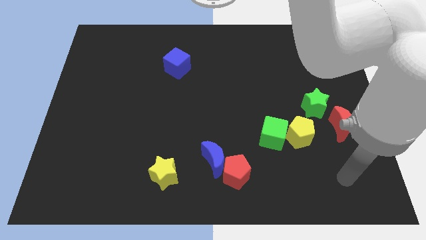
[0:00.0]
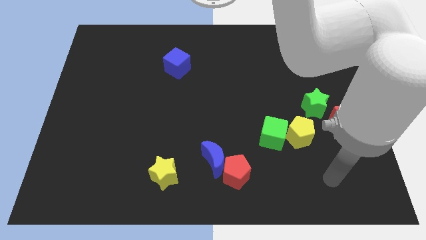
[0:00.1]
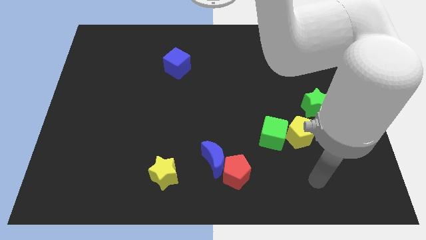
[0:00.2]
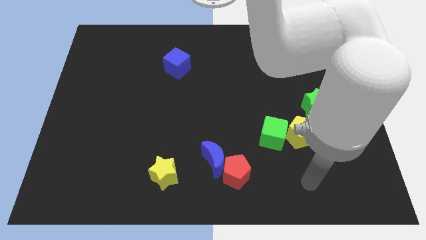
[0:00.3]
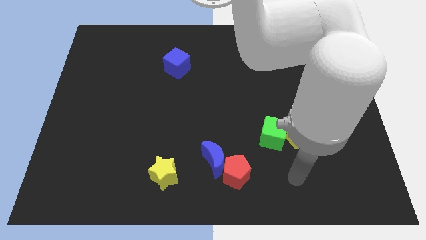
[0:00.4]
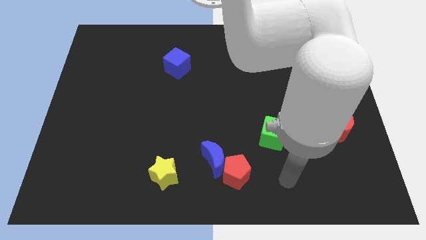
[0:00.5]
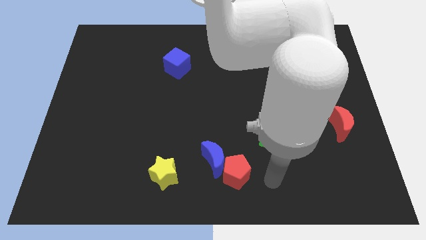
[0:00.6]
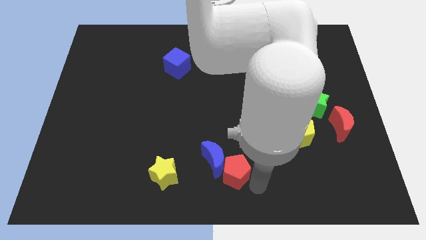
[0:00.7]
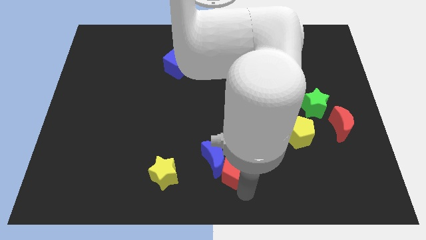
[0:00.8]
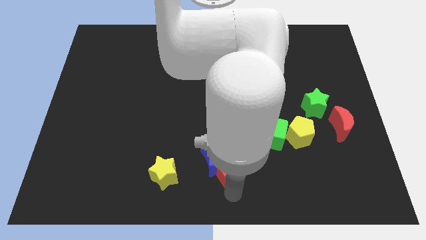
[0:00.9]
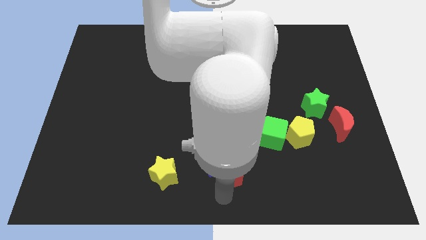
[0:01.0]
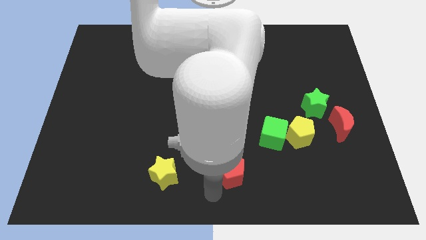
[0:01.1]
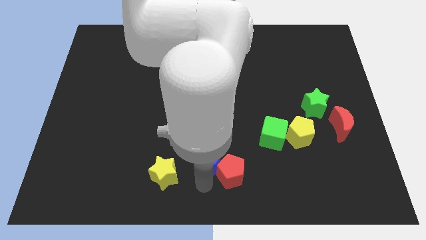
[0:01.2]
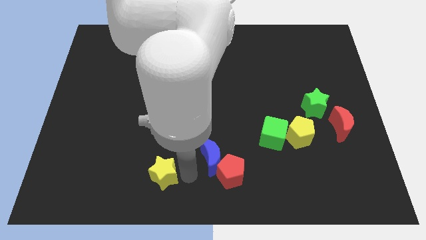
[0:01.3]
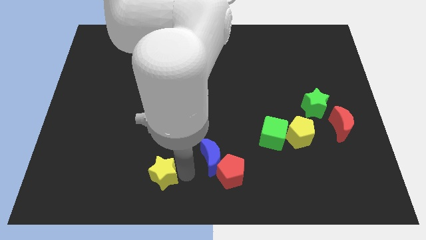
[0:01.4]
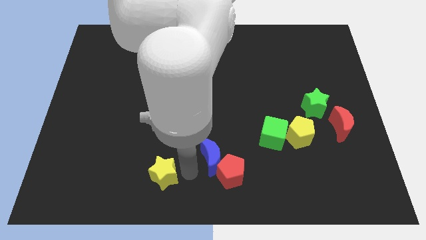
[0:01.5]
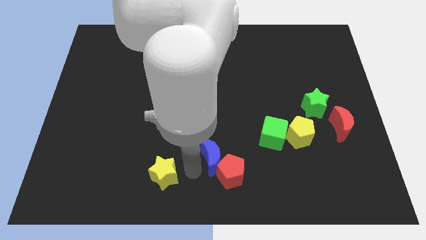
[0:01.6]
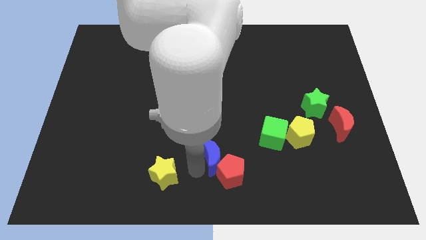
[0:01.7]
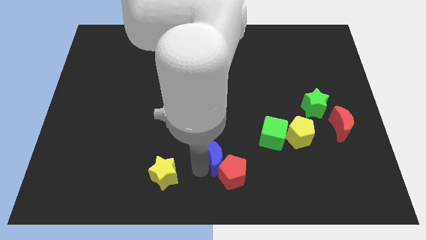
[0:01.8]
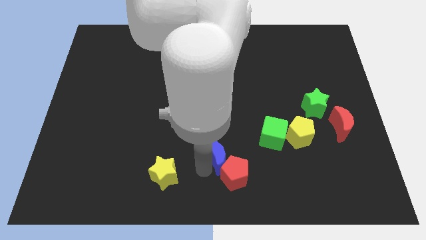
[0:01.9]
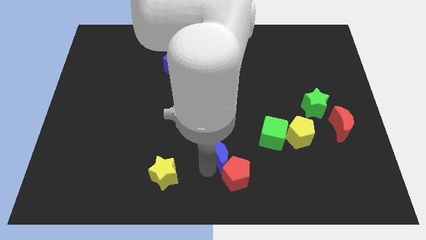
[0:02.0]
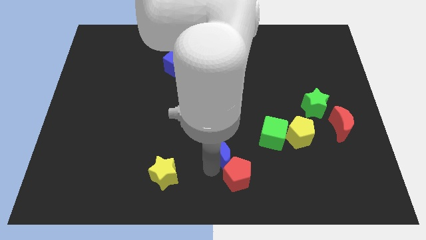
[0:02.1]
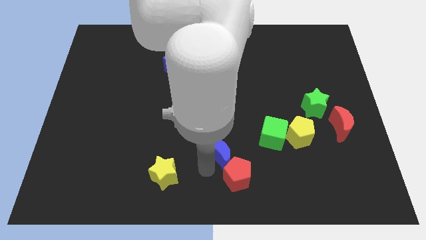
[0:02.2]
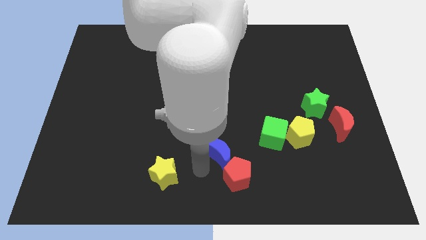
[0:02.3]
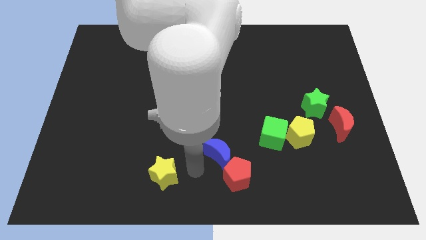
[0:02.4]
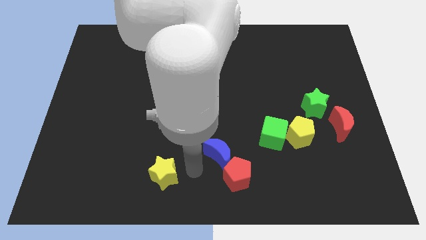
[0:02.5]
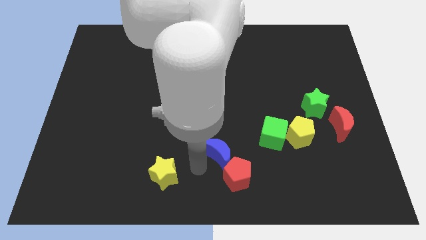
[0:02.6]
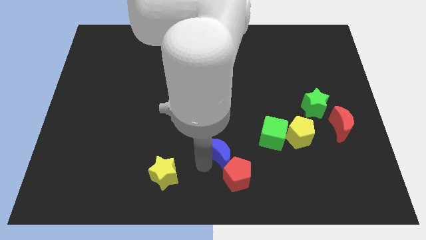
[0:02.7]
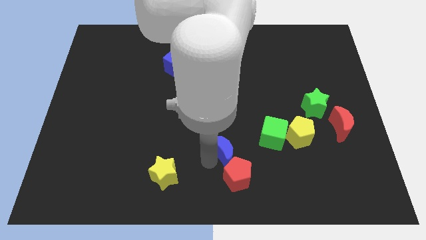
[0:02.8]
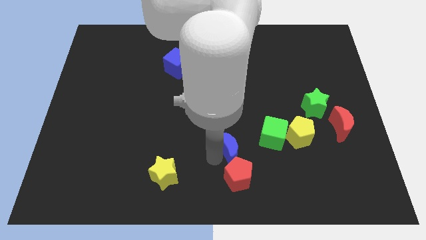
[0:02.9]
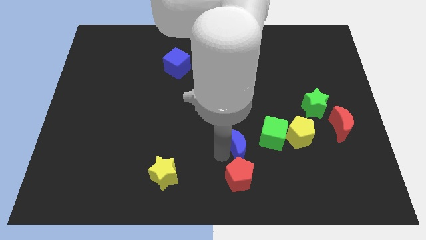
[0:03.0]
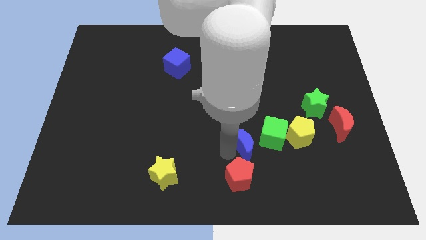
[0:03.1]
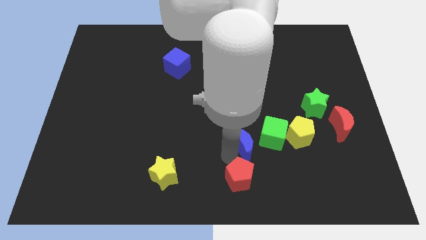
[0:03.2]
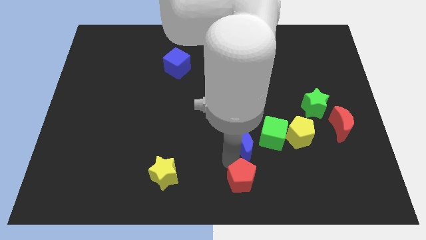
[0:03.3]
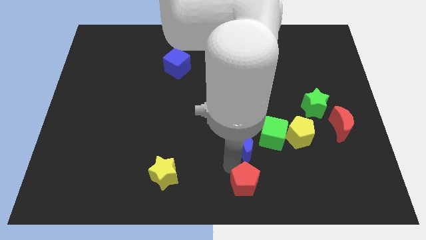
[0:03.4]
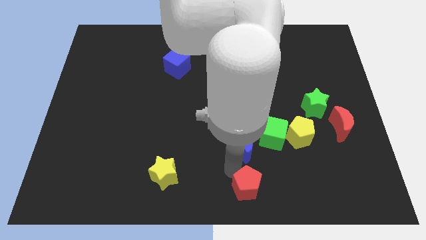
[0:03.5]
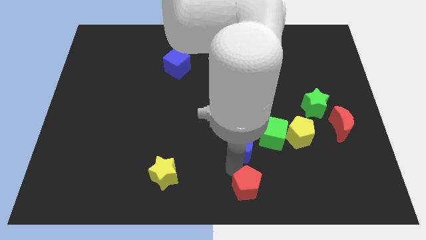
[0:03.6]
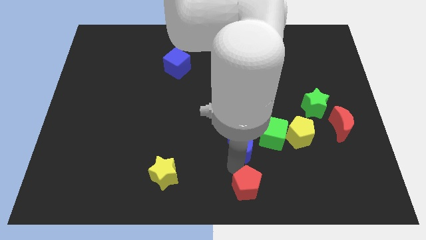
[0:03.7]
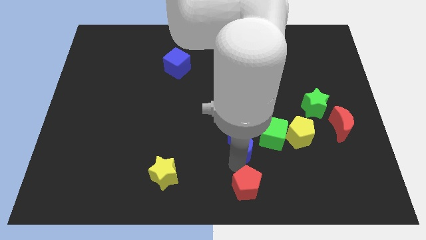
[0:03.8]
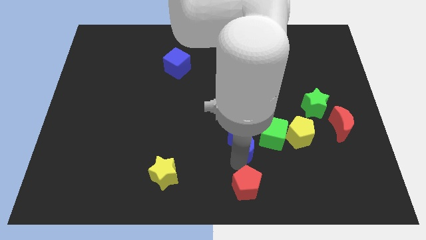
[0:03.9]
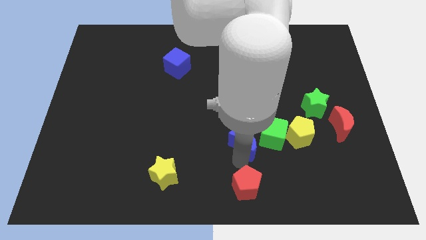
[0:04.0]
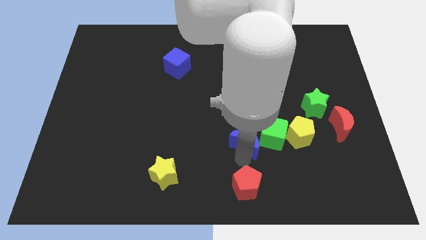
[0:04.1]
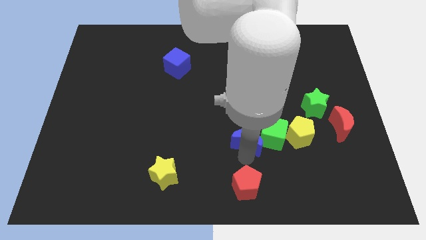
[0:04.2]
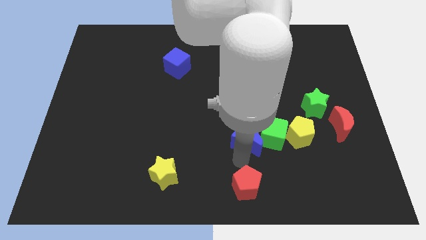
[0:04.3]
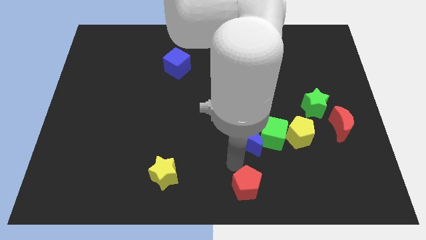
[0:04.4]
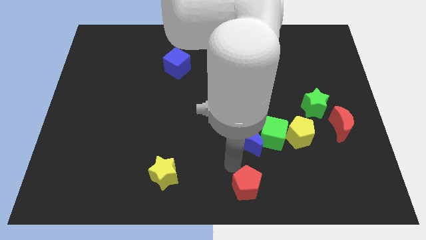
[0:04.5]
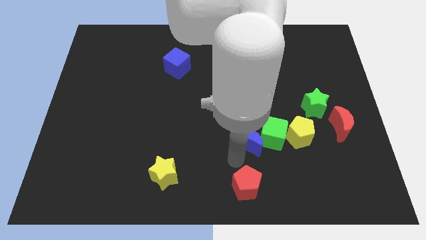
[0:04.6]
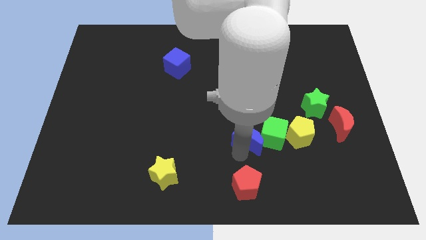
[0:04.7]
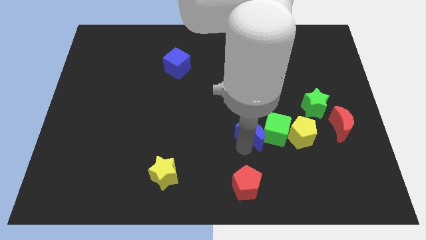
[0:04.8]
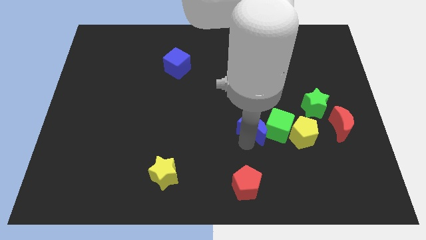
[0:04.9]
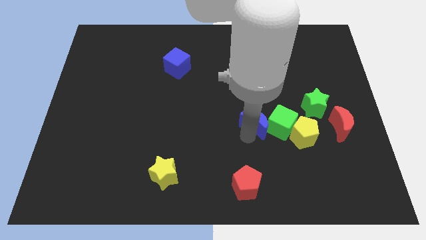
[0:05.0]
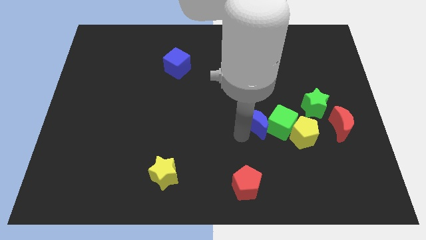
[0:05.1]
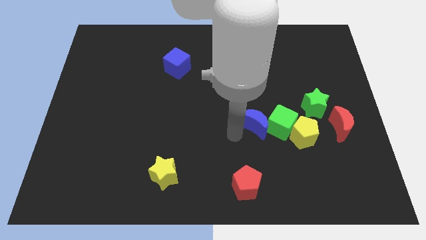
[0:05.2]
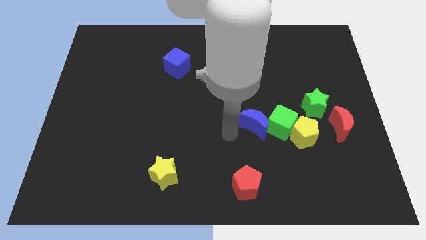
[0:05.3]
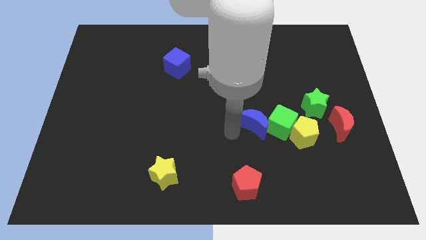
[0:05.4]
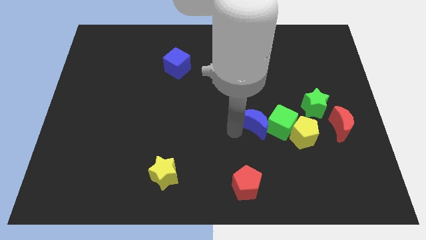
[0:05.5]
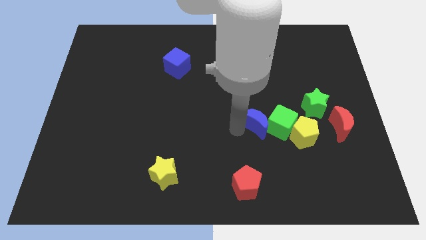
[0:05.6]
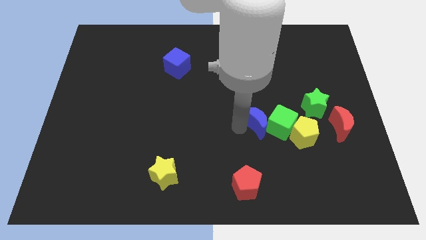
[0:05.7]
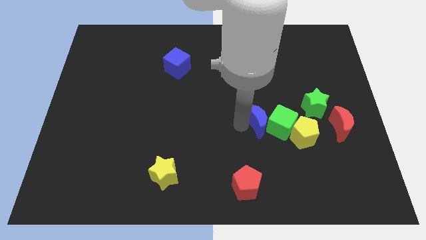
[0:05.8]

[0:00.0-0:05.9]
move the blue moon diagonally up and to the left of the yellow pentagon

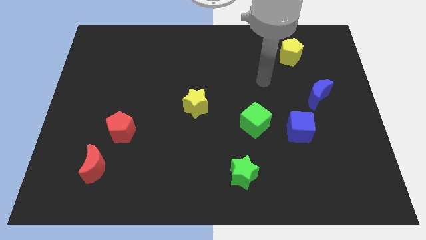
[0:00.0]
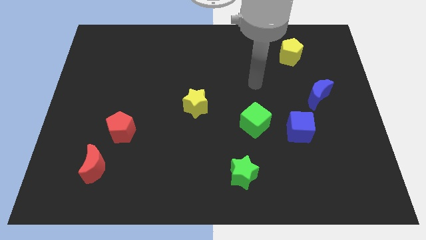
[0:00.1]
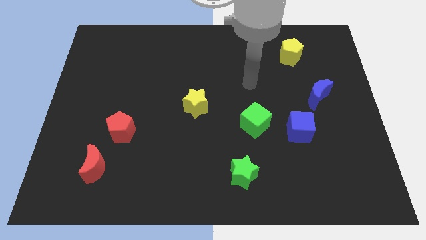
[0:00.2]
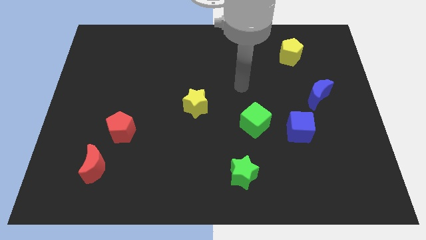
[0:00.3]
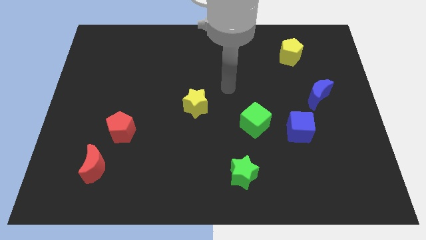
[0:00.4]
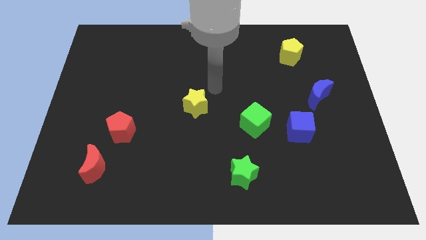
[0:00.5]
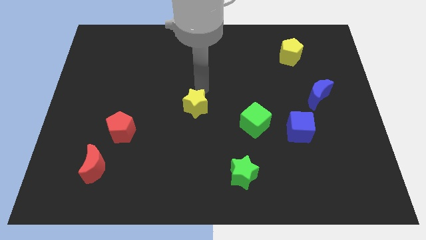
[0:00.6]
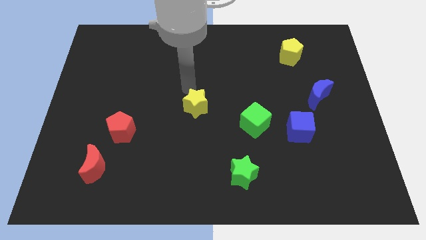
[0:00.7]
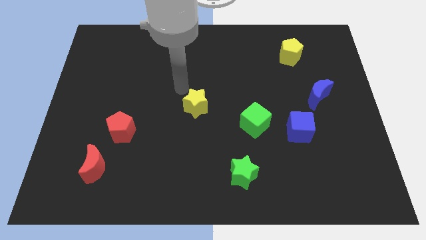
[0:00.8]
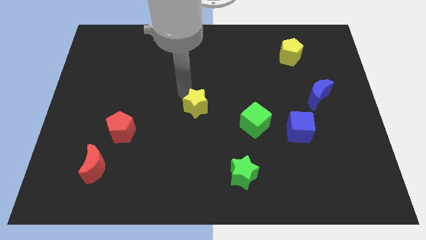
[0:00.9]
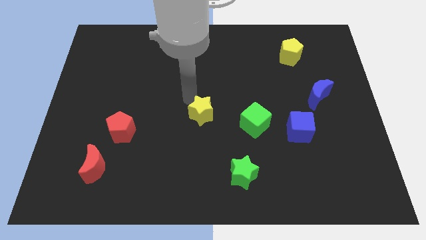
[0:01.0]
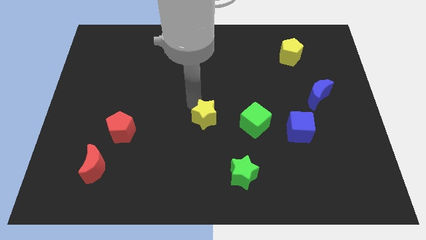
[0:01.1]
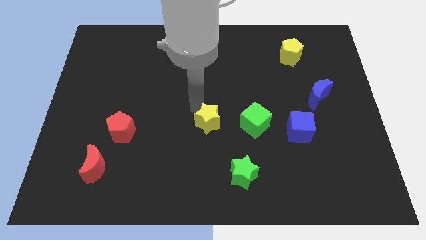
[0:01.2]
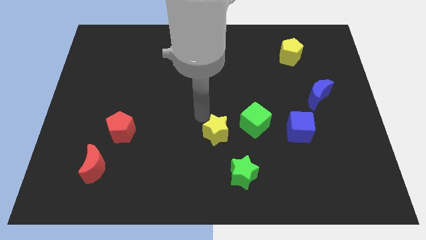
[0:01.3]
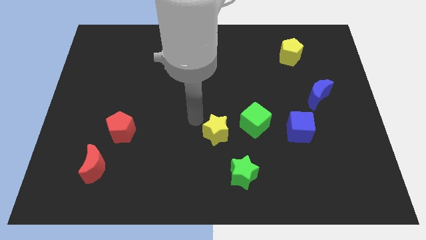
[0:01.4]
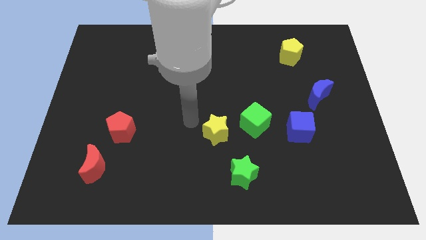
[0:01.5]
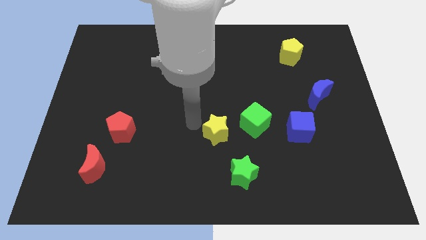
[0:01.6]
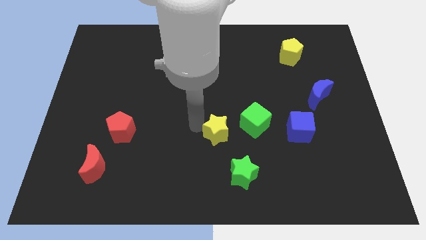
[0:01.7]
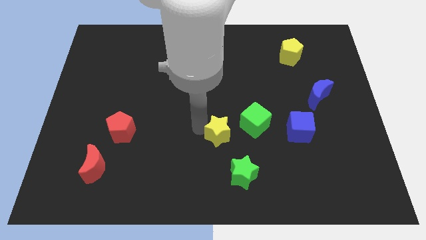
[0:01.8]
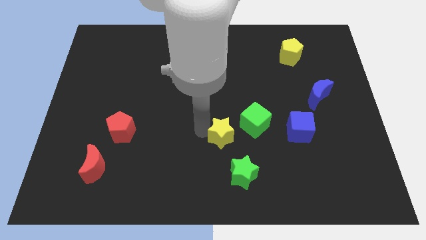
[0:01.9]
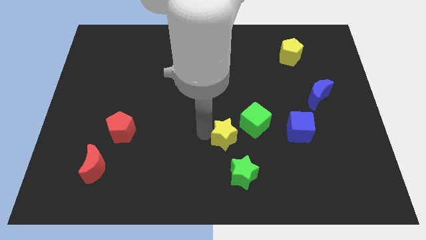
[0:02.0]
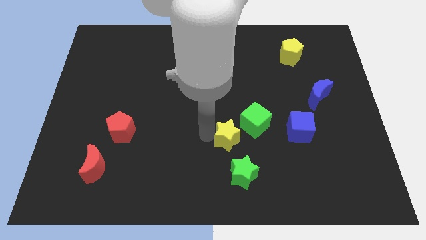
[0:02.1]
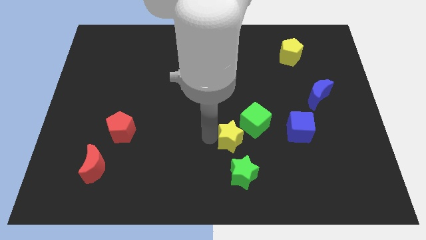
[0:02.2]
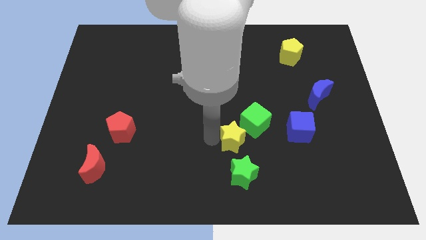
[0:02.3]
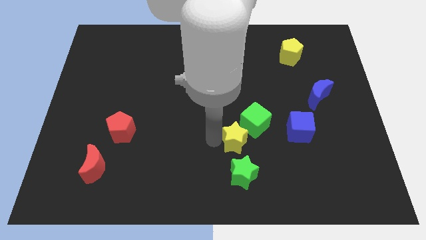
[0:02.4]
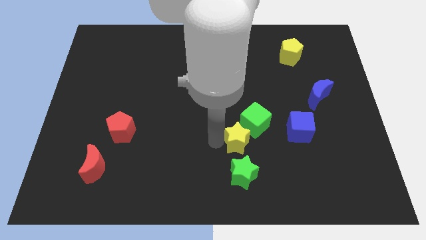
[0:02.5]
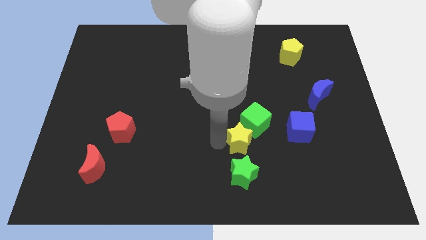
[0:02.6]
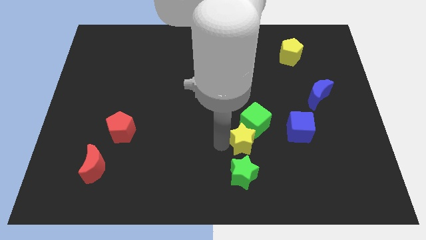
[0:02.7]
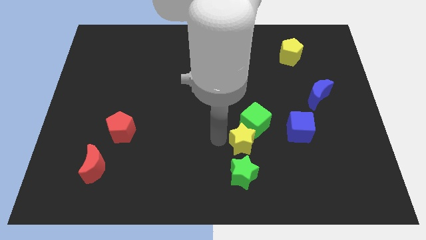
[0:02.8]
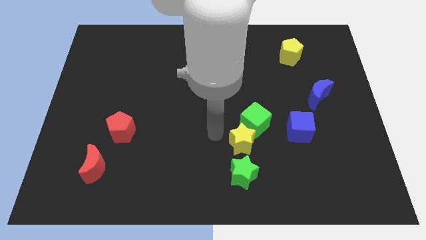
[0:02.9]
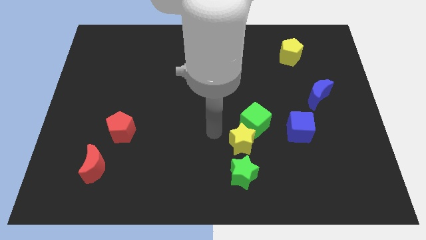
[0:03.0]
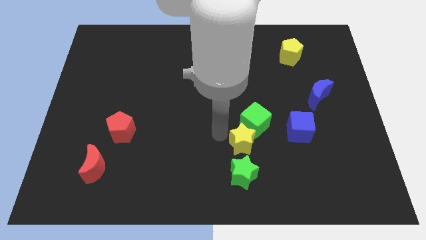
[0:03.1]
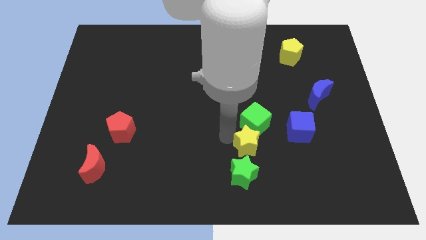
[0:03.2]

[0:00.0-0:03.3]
move the yellow star diagonally up and to the right of the green star
